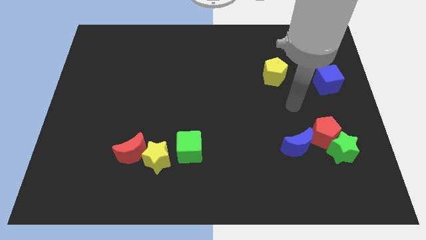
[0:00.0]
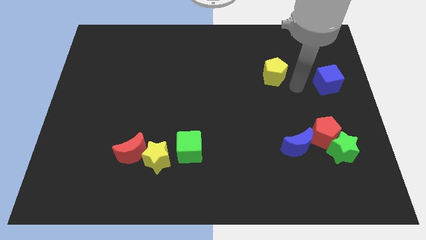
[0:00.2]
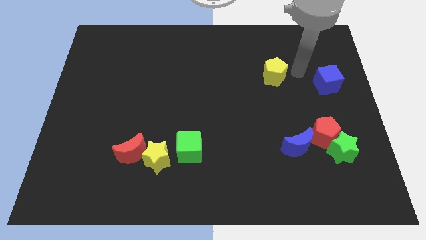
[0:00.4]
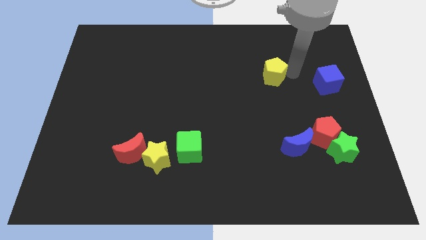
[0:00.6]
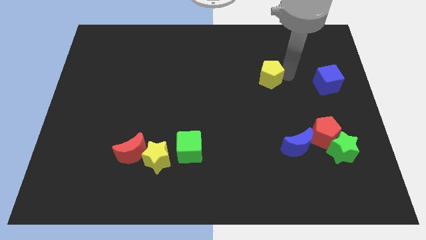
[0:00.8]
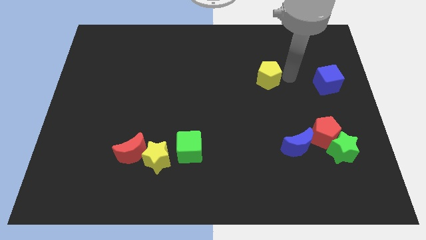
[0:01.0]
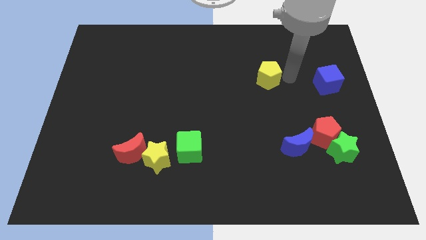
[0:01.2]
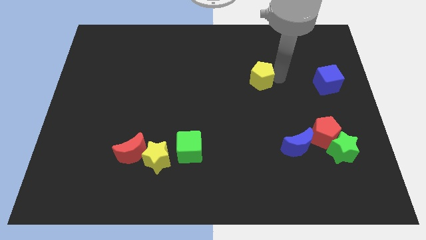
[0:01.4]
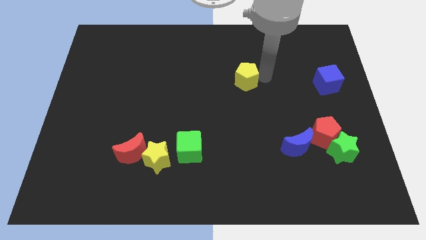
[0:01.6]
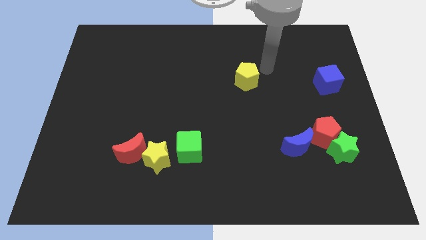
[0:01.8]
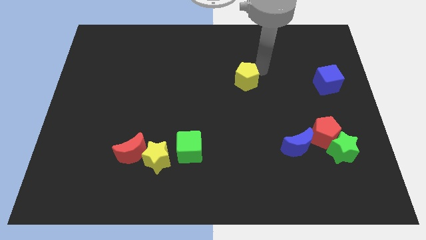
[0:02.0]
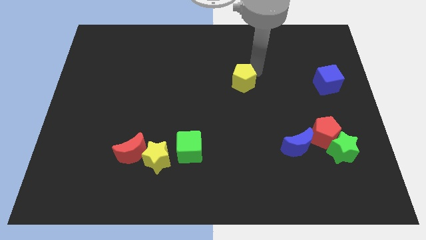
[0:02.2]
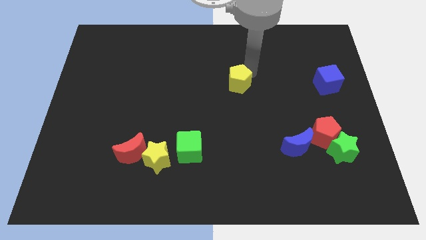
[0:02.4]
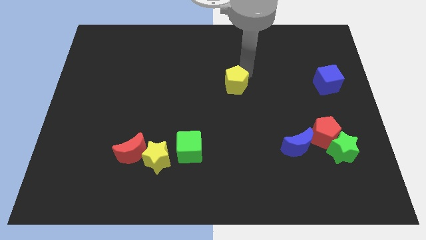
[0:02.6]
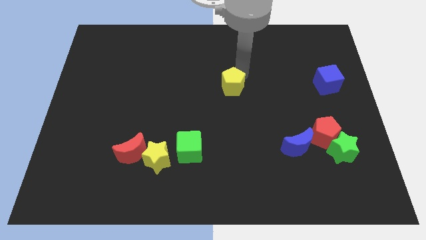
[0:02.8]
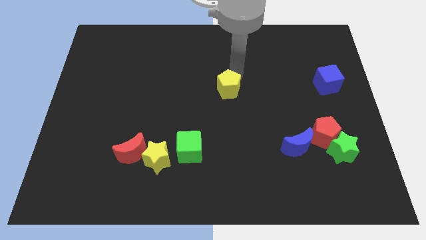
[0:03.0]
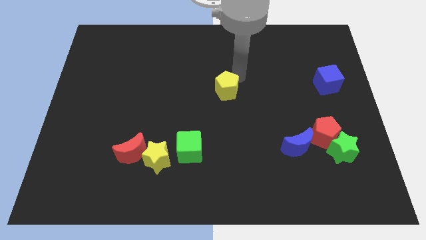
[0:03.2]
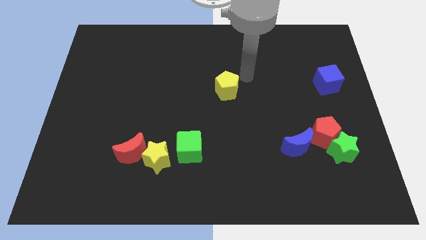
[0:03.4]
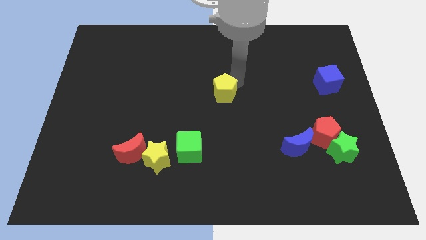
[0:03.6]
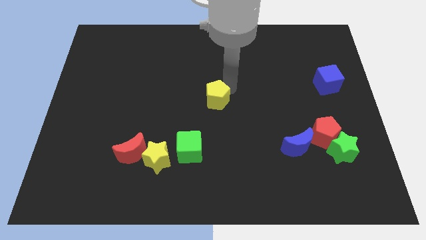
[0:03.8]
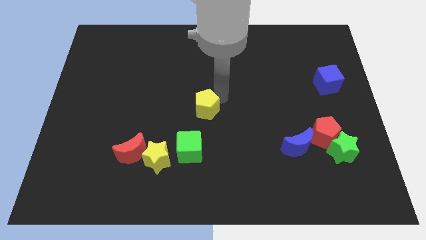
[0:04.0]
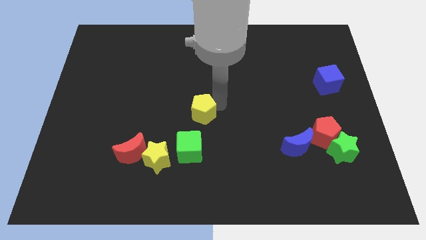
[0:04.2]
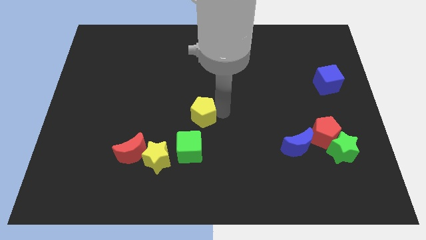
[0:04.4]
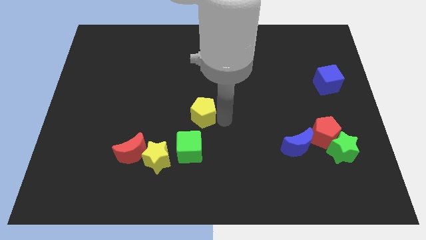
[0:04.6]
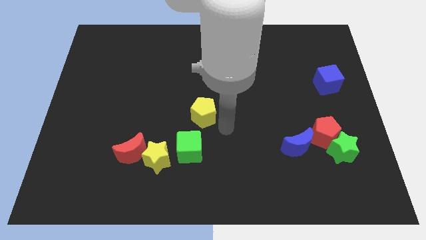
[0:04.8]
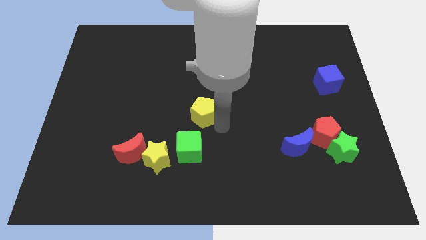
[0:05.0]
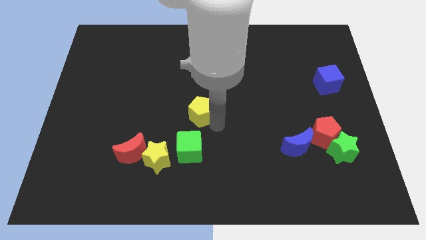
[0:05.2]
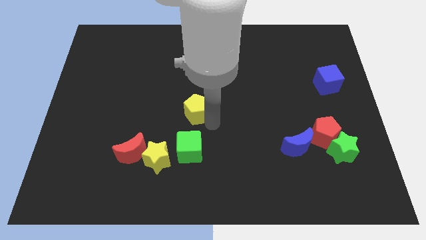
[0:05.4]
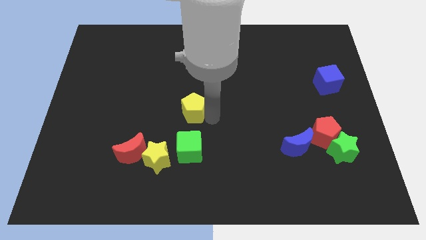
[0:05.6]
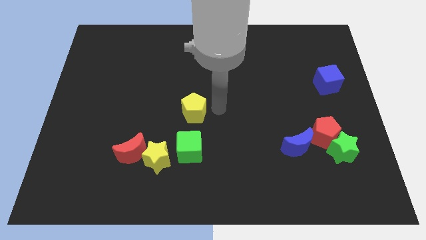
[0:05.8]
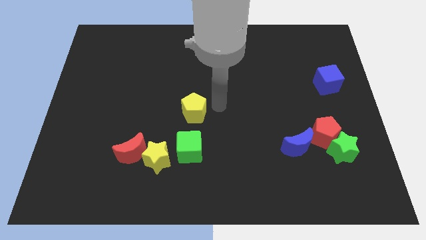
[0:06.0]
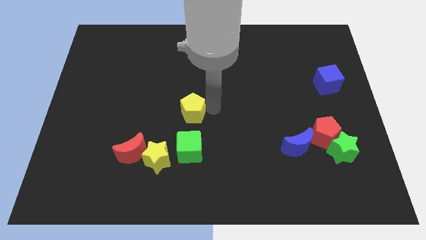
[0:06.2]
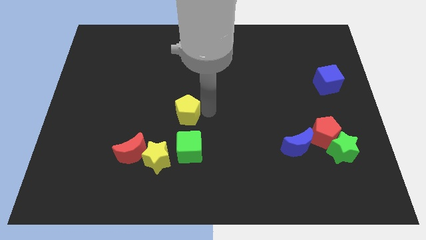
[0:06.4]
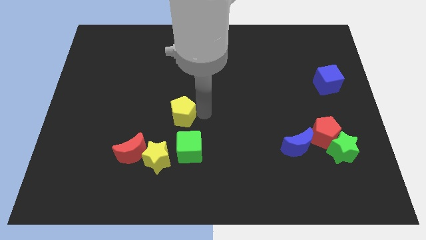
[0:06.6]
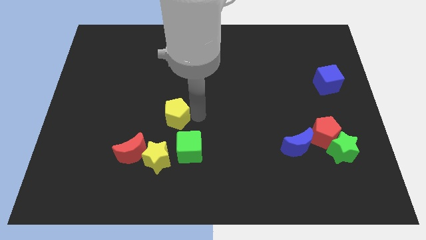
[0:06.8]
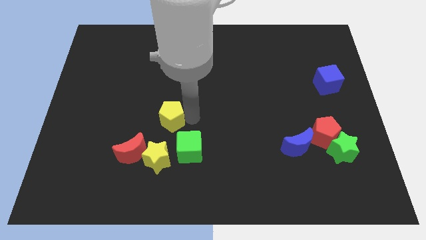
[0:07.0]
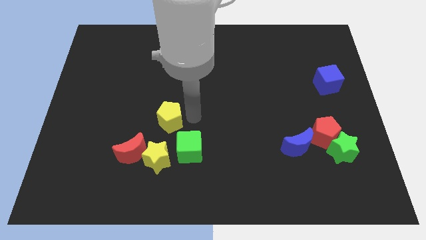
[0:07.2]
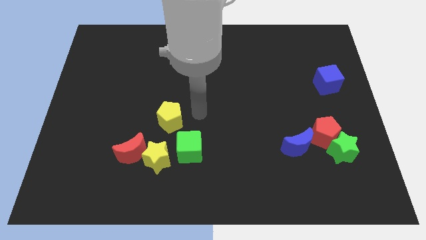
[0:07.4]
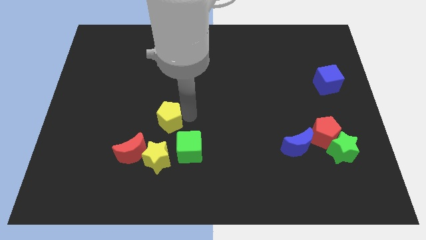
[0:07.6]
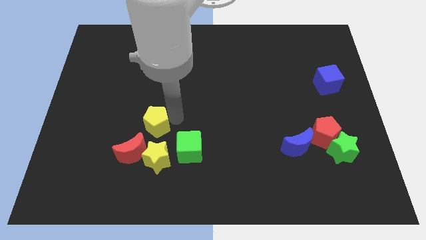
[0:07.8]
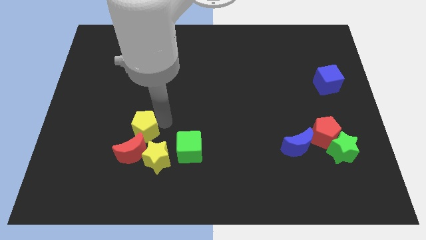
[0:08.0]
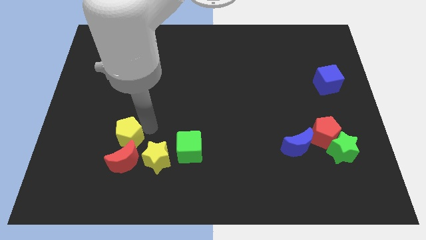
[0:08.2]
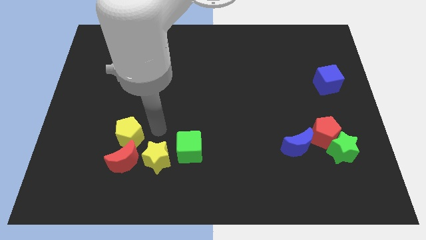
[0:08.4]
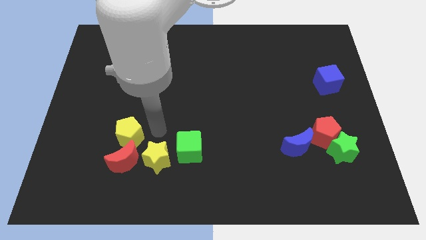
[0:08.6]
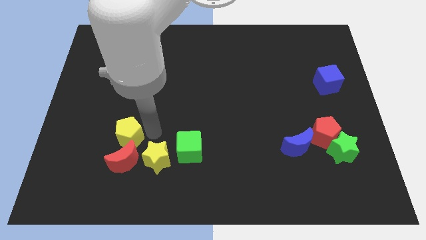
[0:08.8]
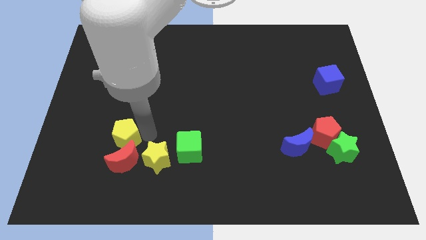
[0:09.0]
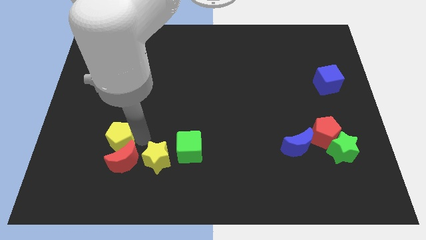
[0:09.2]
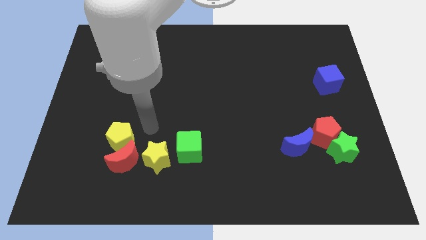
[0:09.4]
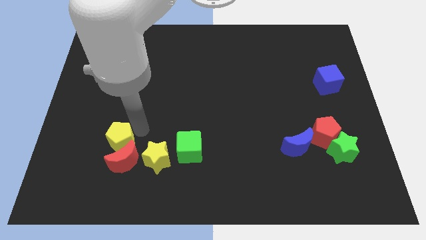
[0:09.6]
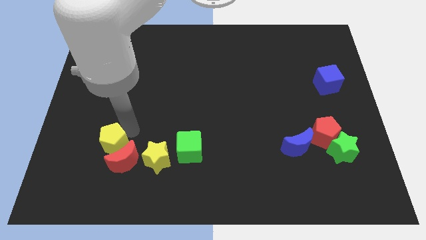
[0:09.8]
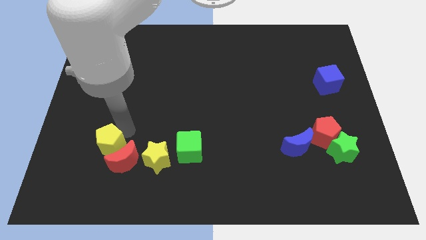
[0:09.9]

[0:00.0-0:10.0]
slide the yellow pentagon just left of the red moon

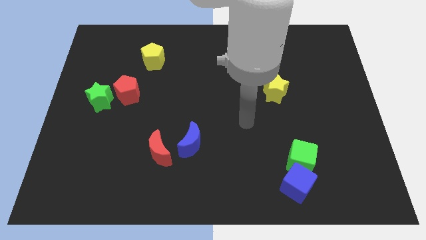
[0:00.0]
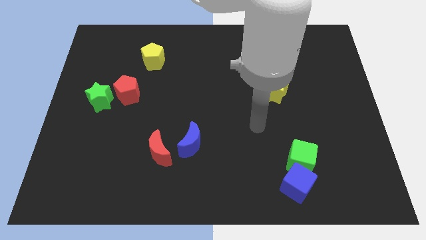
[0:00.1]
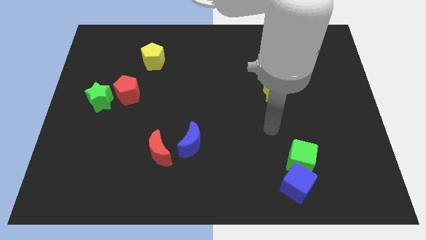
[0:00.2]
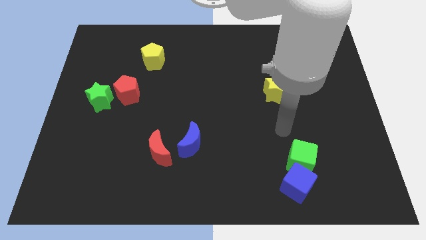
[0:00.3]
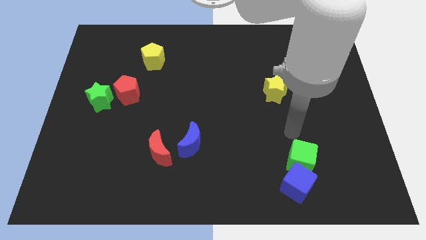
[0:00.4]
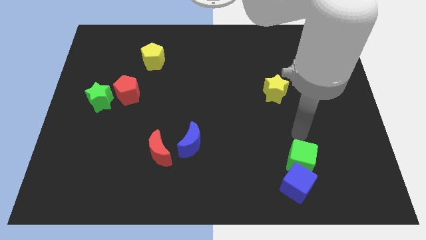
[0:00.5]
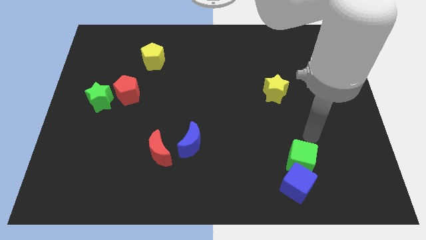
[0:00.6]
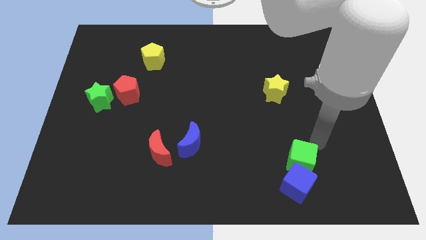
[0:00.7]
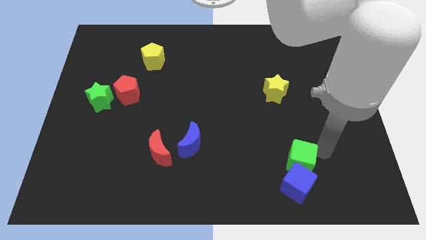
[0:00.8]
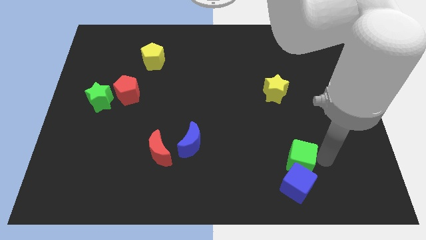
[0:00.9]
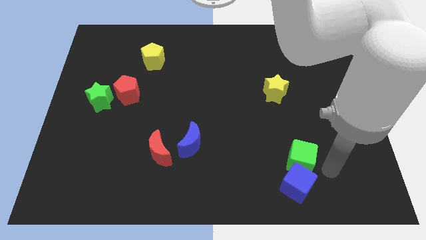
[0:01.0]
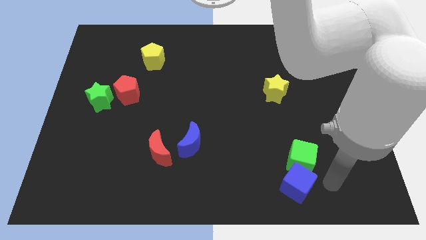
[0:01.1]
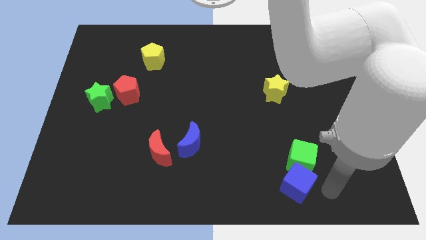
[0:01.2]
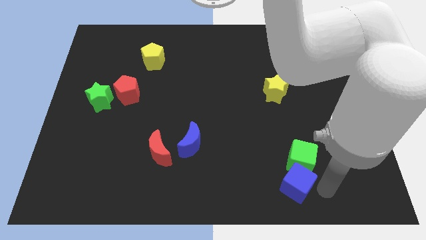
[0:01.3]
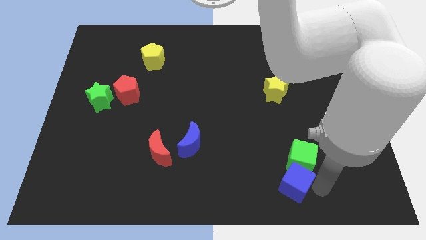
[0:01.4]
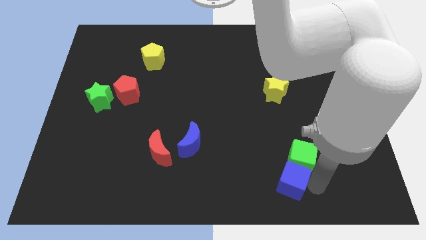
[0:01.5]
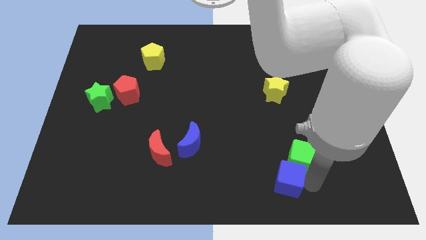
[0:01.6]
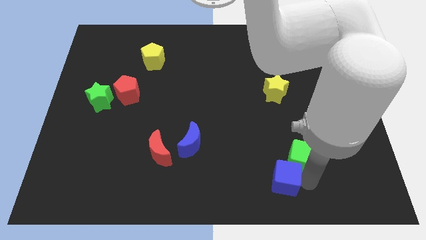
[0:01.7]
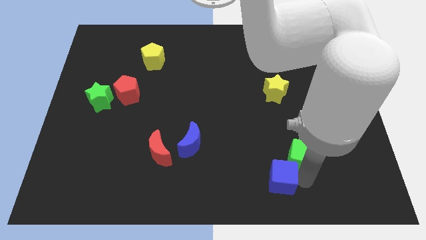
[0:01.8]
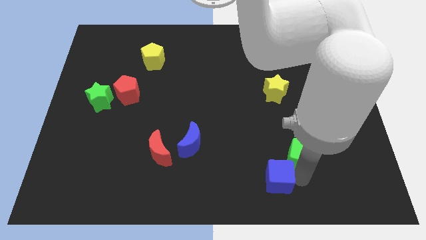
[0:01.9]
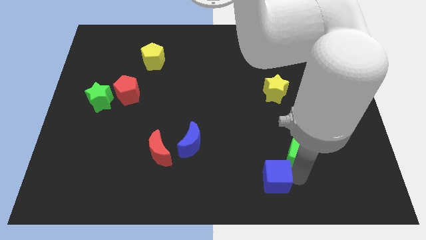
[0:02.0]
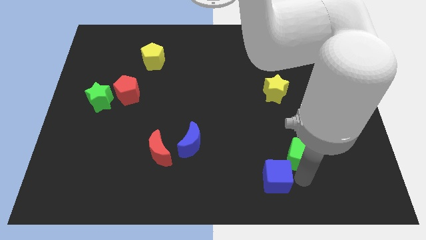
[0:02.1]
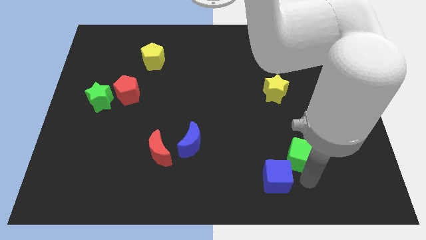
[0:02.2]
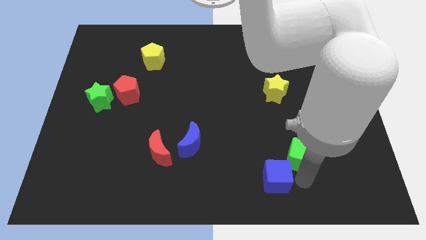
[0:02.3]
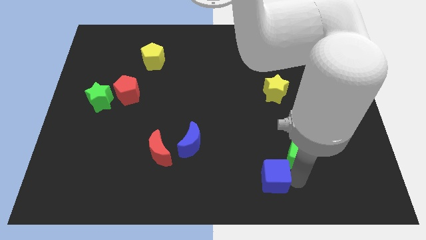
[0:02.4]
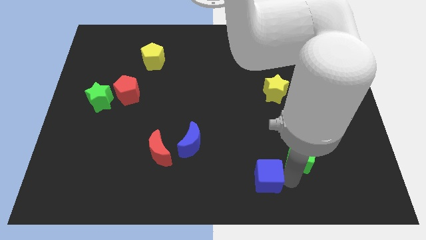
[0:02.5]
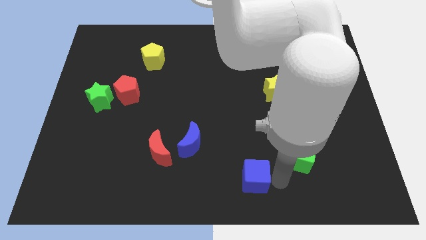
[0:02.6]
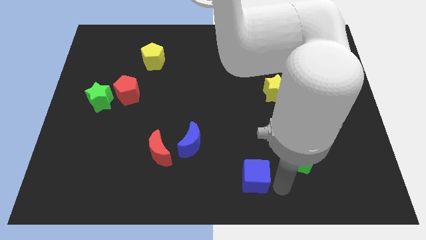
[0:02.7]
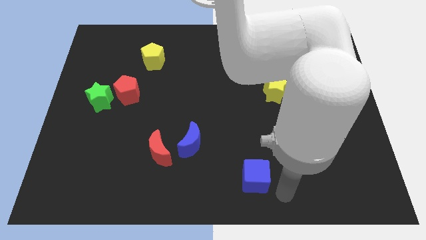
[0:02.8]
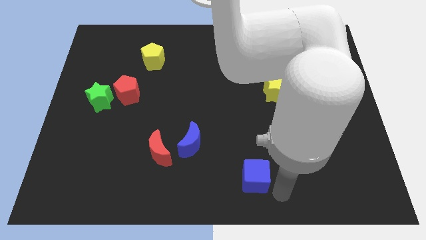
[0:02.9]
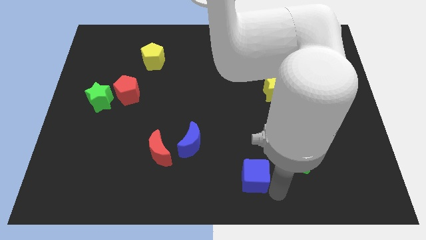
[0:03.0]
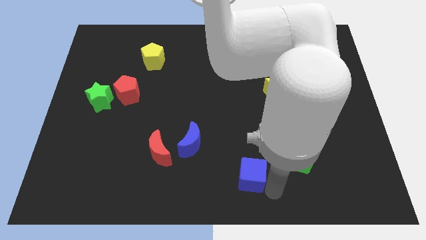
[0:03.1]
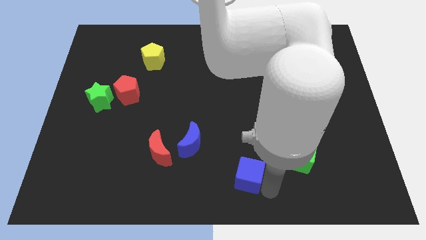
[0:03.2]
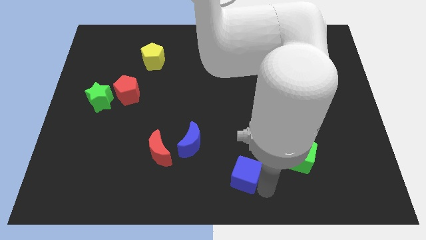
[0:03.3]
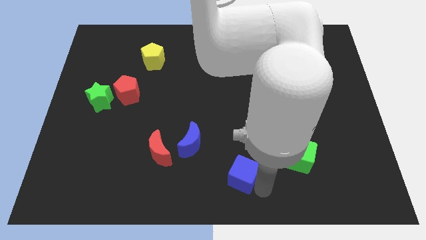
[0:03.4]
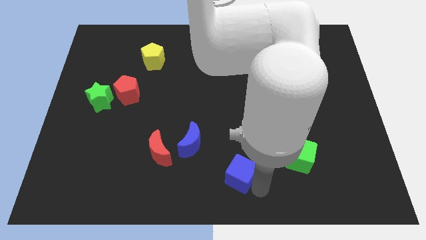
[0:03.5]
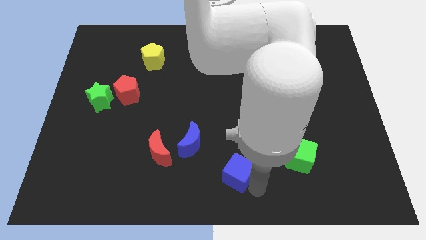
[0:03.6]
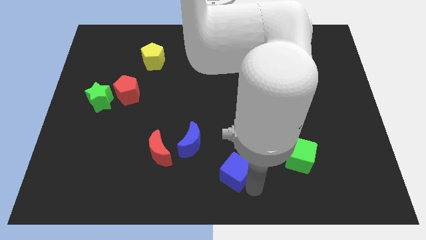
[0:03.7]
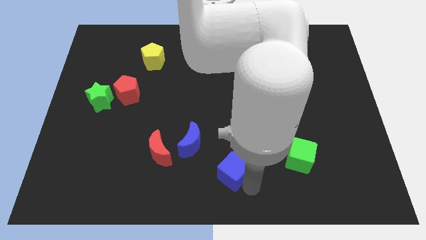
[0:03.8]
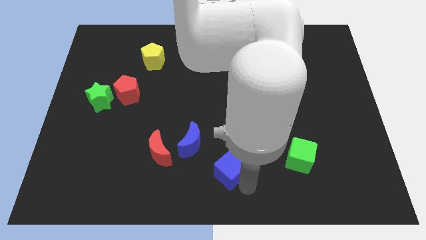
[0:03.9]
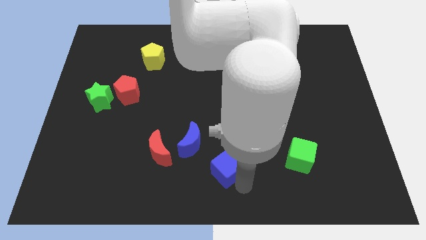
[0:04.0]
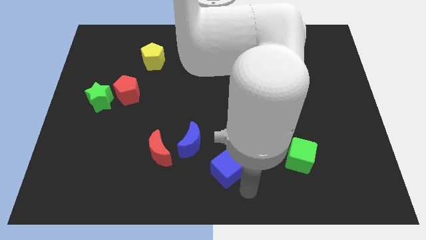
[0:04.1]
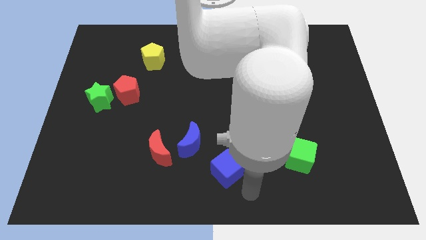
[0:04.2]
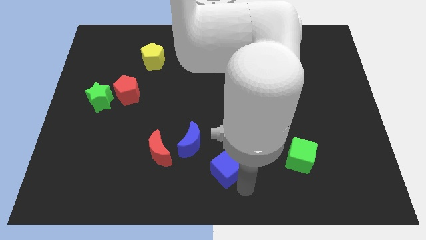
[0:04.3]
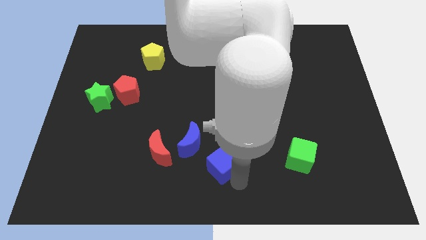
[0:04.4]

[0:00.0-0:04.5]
move the blue cube right of the red moon
